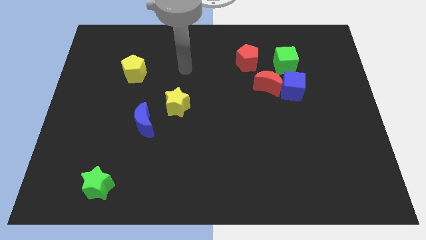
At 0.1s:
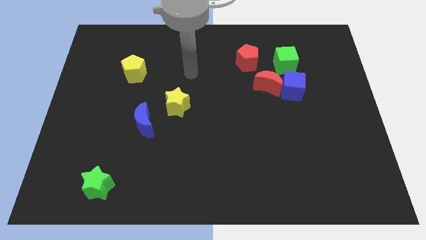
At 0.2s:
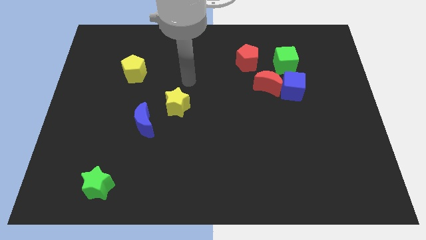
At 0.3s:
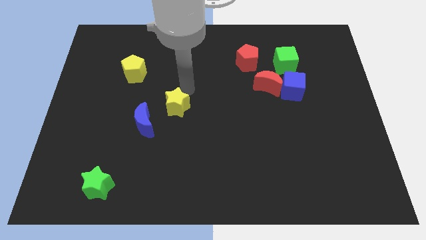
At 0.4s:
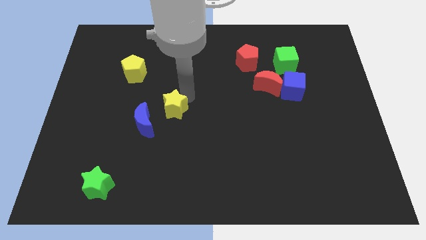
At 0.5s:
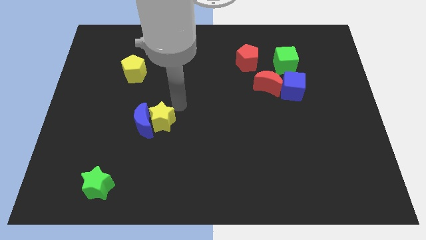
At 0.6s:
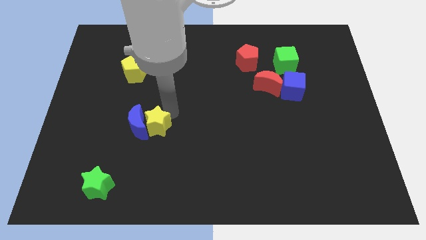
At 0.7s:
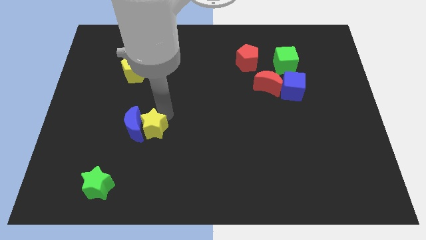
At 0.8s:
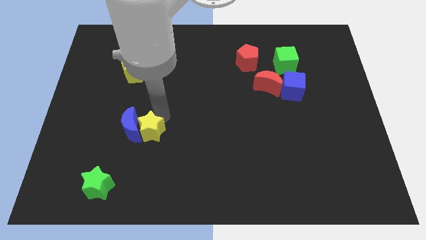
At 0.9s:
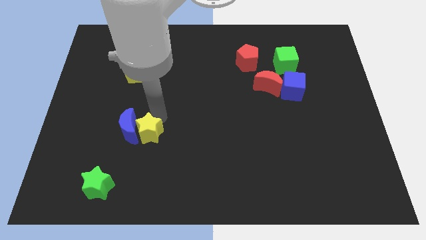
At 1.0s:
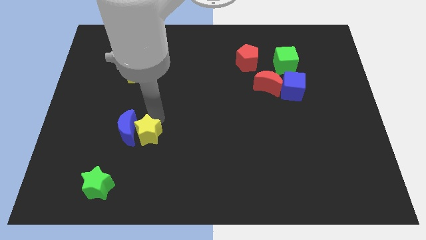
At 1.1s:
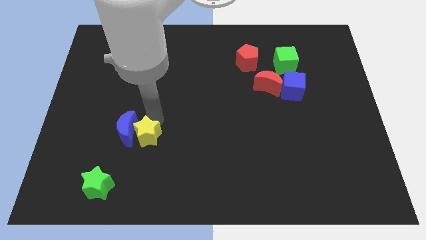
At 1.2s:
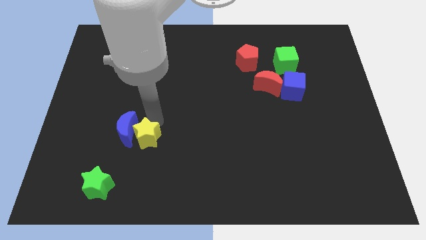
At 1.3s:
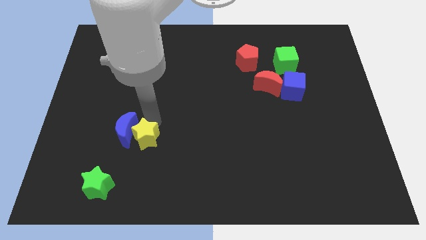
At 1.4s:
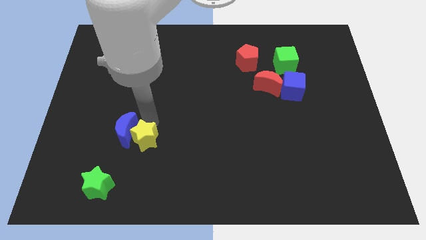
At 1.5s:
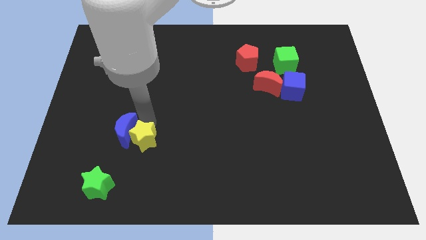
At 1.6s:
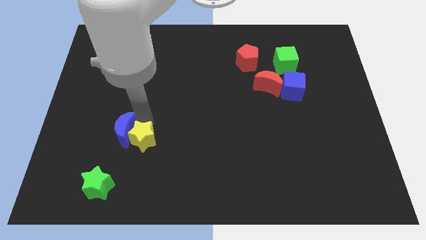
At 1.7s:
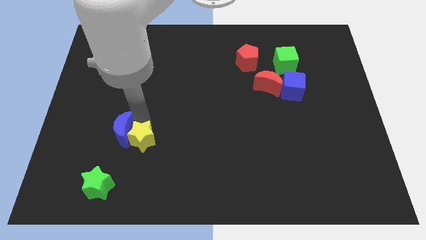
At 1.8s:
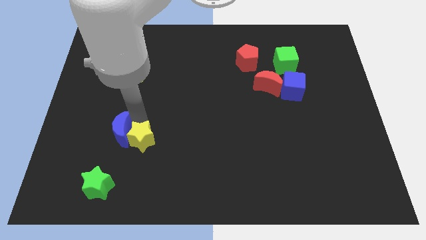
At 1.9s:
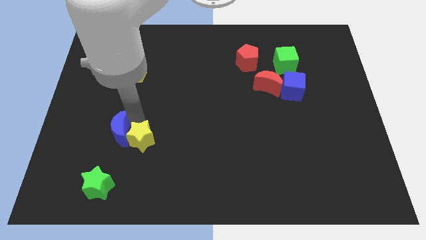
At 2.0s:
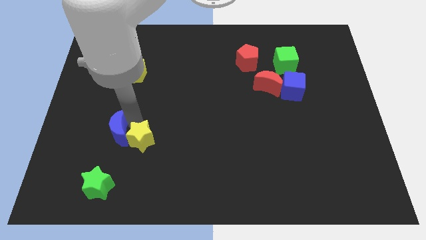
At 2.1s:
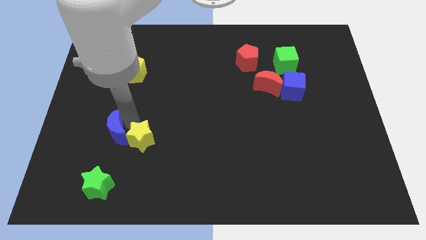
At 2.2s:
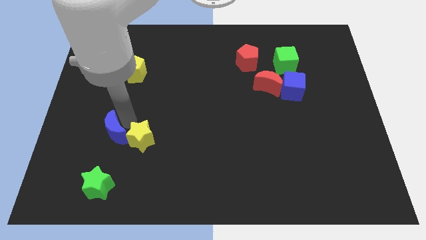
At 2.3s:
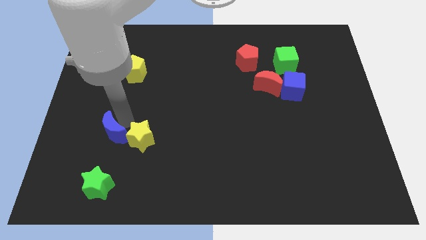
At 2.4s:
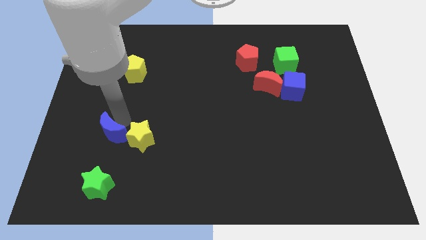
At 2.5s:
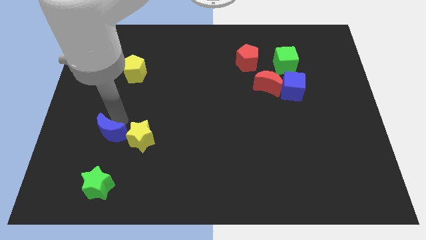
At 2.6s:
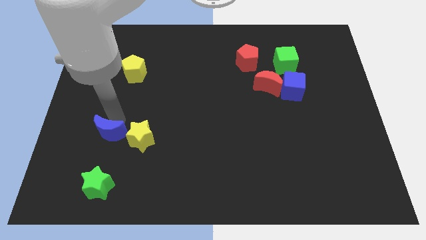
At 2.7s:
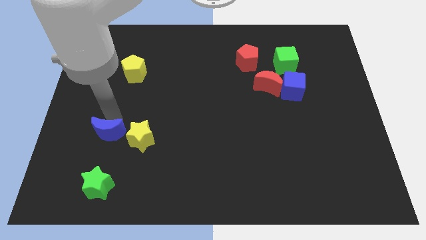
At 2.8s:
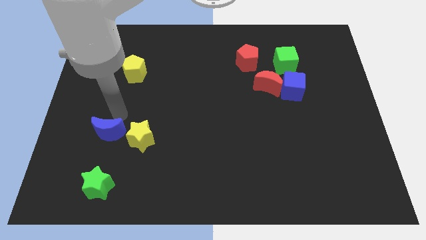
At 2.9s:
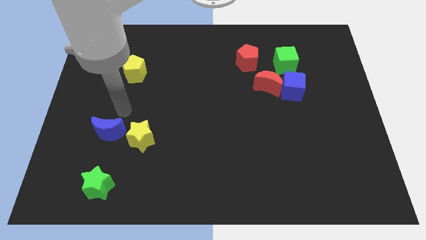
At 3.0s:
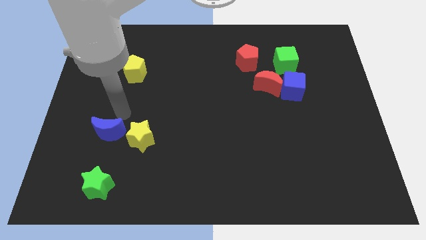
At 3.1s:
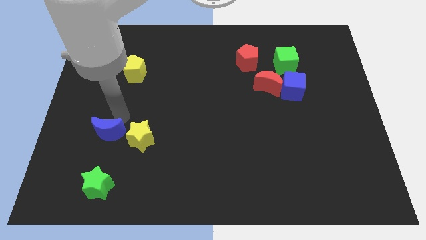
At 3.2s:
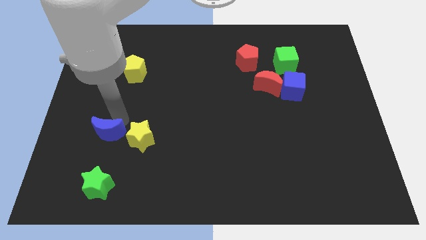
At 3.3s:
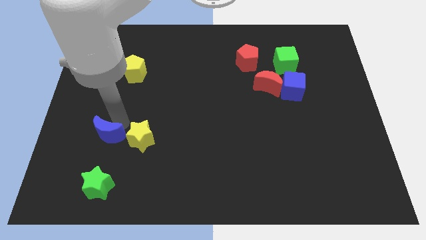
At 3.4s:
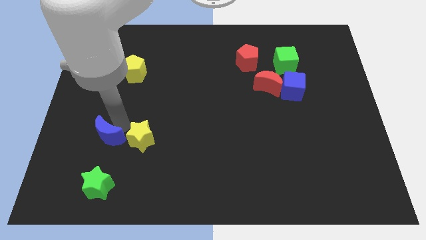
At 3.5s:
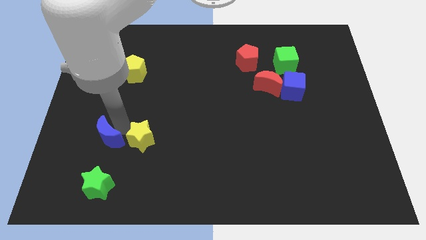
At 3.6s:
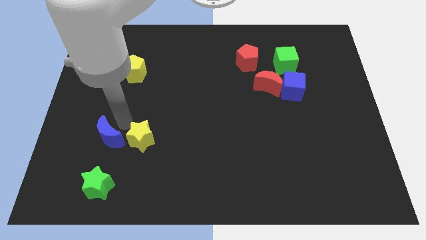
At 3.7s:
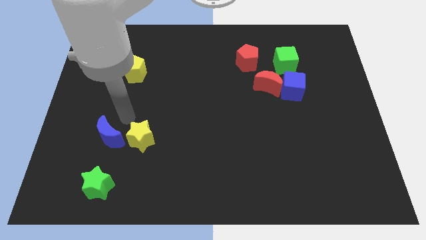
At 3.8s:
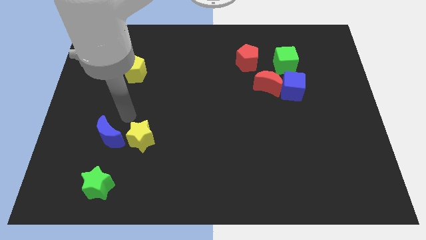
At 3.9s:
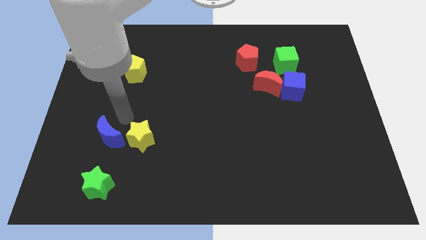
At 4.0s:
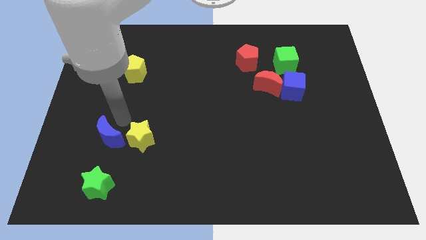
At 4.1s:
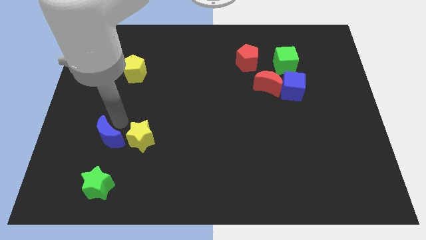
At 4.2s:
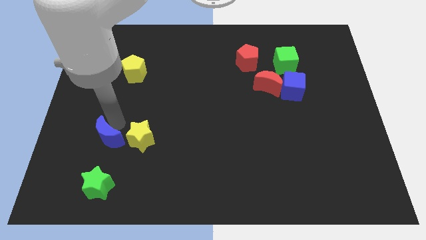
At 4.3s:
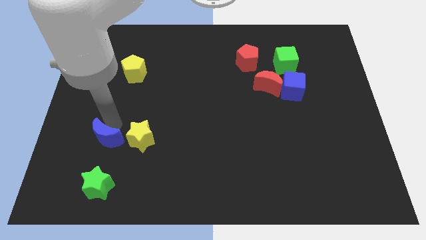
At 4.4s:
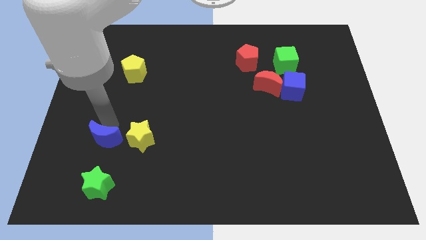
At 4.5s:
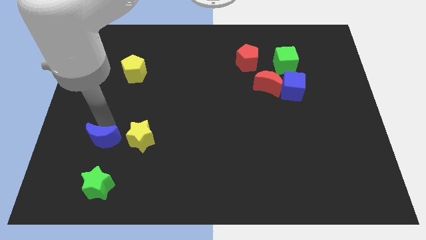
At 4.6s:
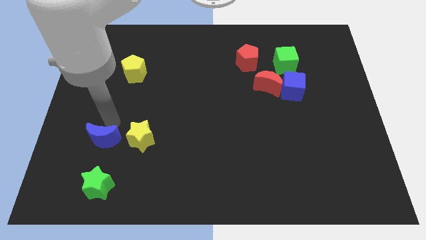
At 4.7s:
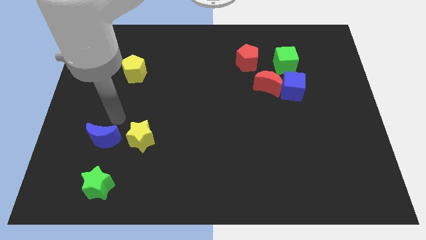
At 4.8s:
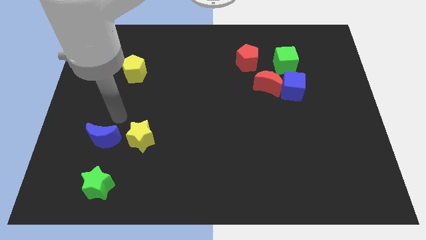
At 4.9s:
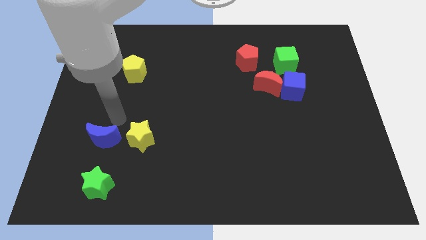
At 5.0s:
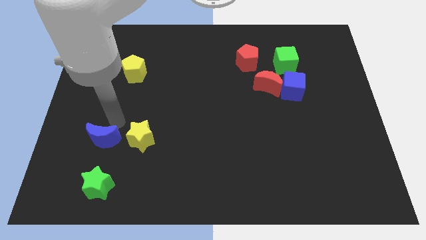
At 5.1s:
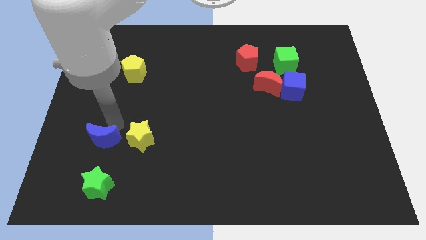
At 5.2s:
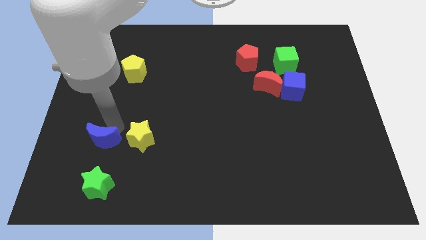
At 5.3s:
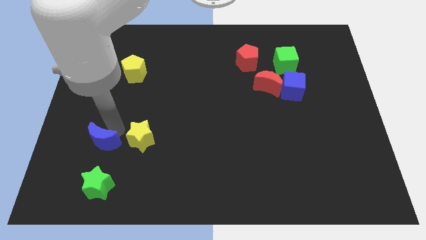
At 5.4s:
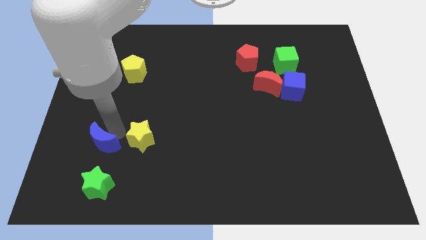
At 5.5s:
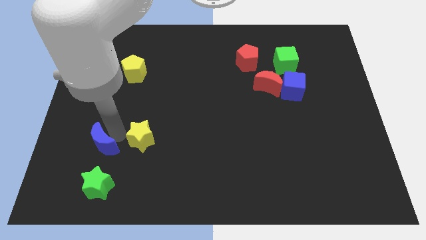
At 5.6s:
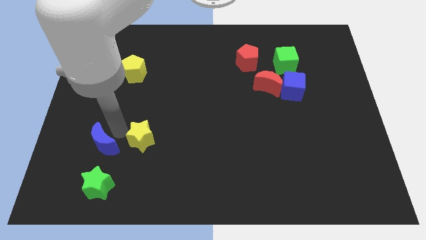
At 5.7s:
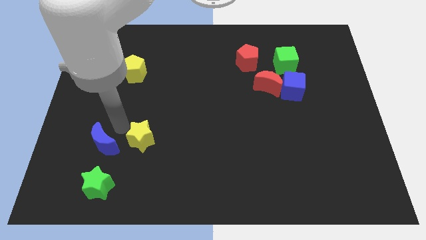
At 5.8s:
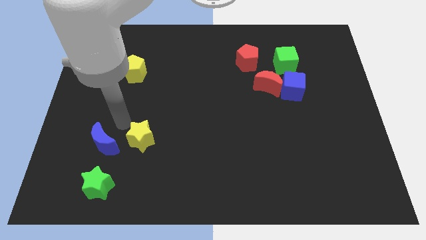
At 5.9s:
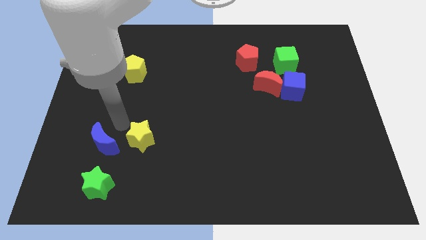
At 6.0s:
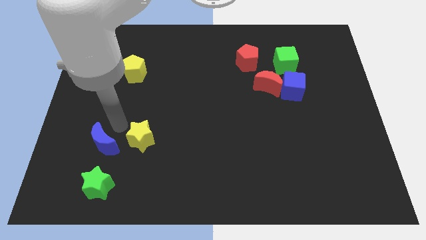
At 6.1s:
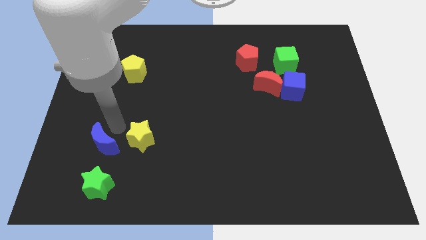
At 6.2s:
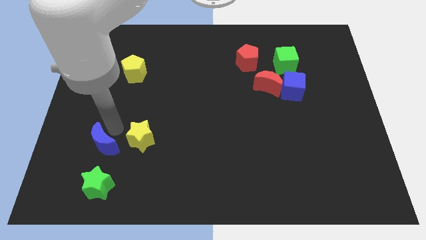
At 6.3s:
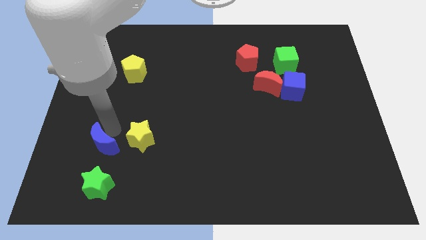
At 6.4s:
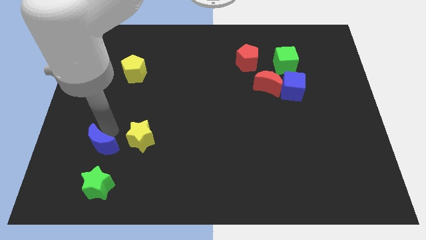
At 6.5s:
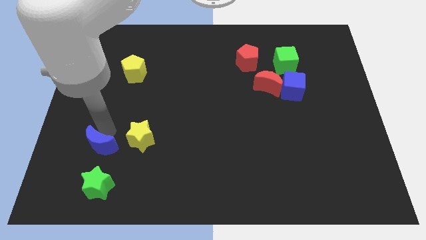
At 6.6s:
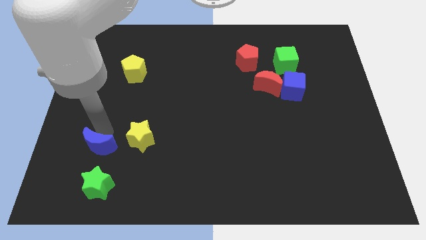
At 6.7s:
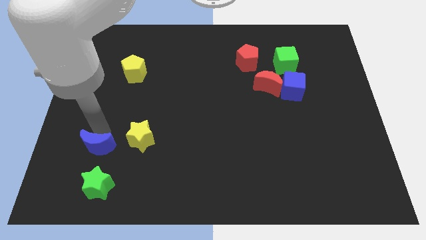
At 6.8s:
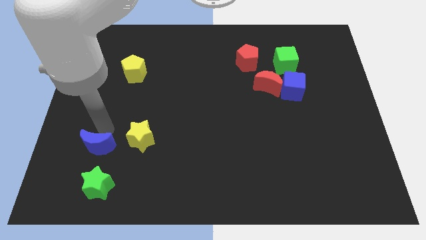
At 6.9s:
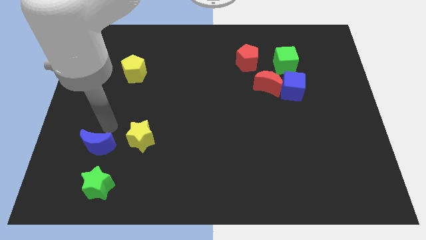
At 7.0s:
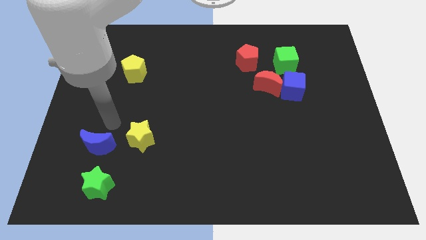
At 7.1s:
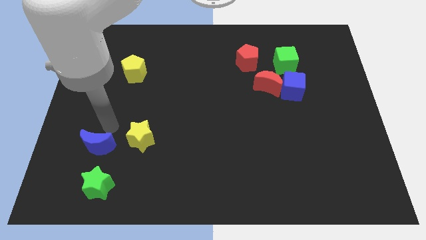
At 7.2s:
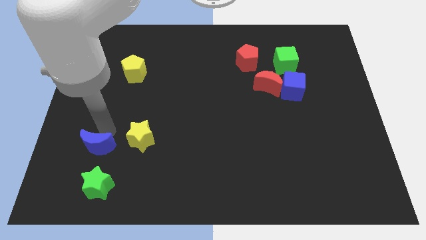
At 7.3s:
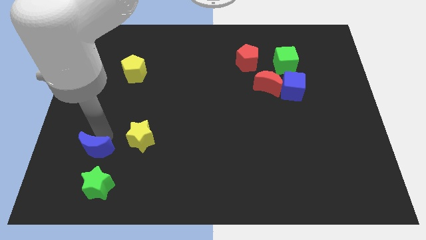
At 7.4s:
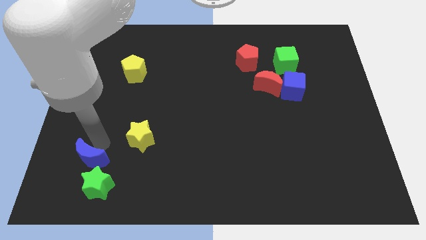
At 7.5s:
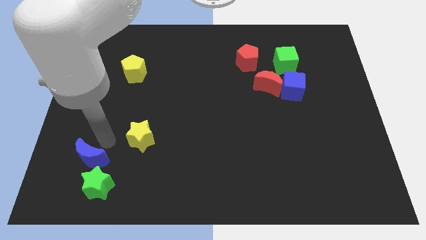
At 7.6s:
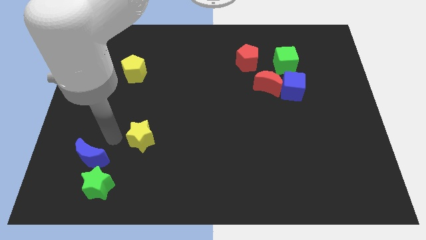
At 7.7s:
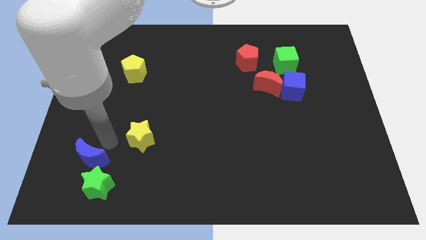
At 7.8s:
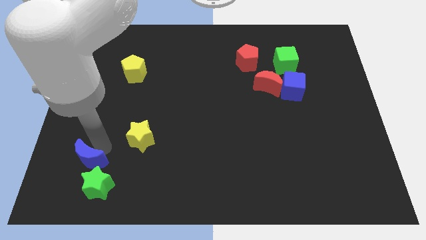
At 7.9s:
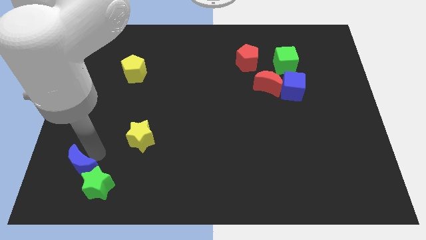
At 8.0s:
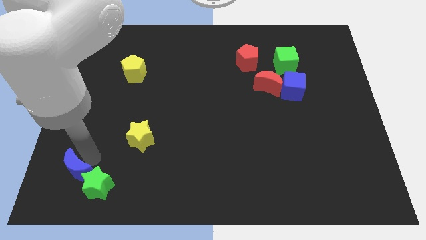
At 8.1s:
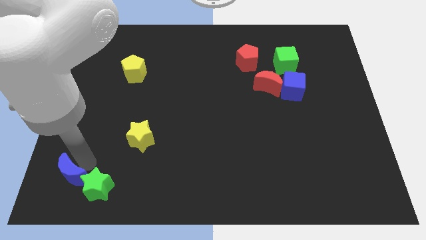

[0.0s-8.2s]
put the blue moon to the bottom left corner
